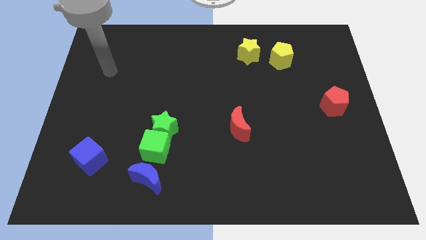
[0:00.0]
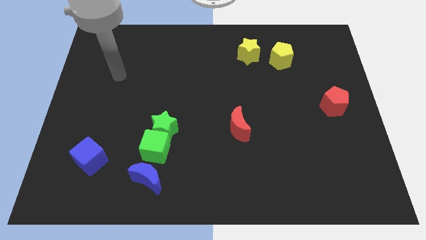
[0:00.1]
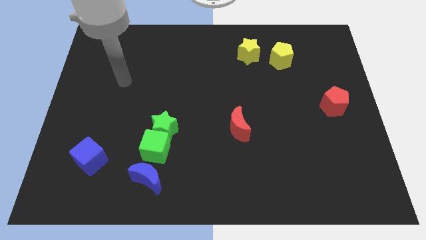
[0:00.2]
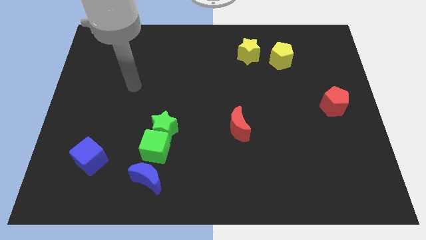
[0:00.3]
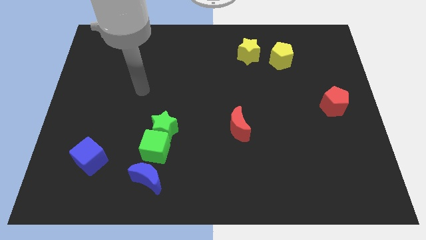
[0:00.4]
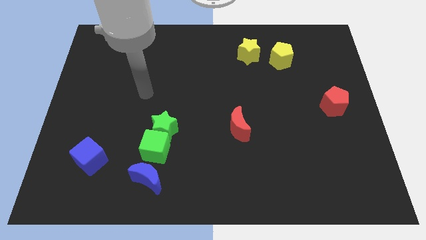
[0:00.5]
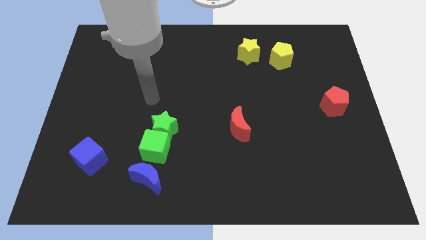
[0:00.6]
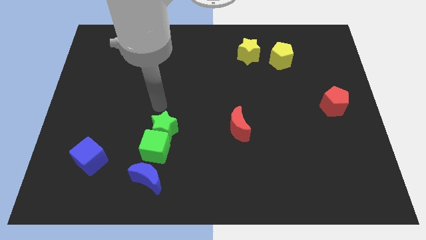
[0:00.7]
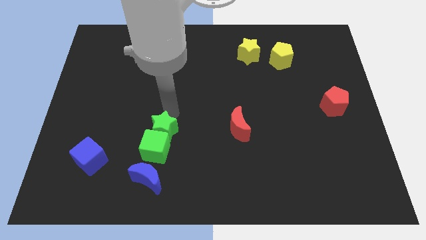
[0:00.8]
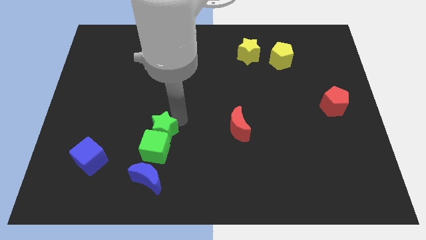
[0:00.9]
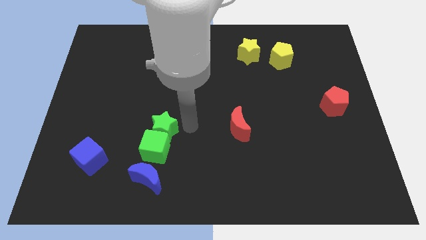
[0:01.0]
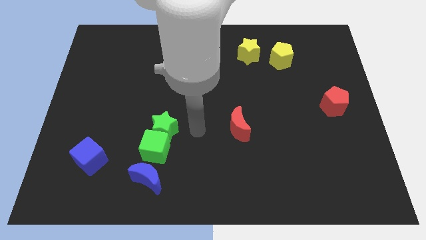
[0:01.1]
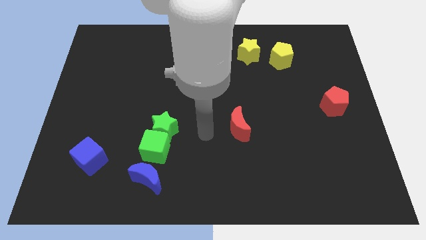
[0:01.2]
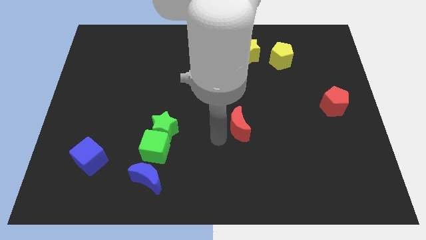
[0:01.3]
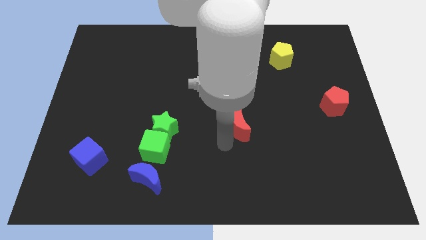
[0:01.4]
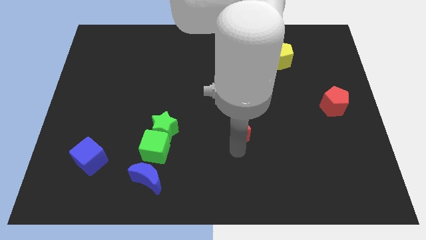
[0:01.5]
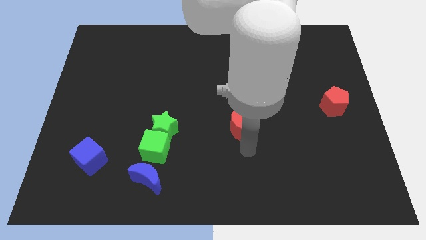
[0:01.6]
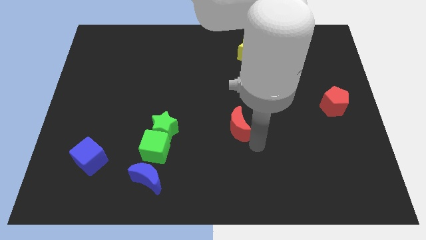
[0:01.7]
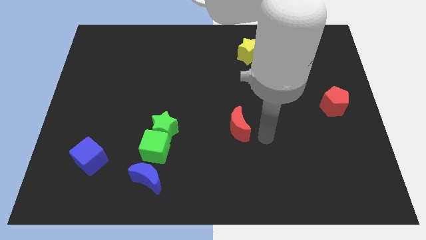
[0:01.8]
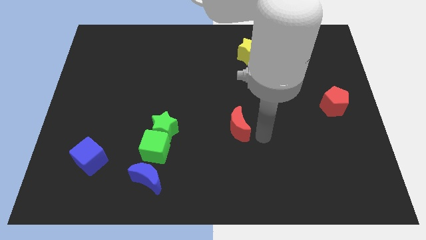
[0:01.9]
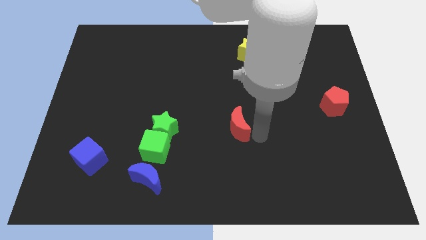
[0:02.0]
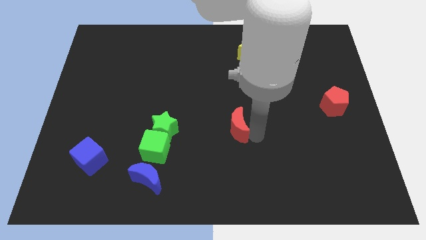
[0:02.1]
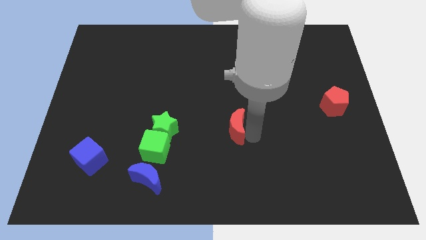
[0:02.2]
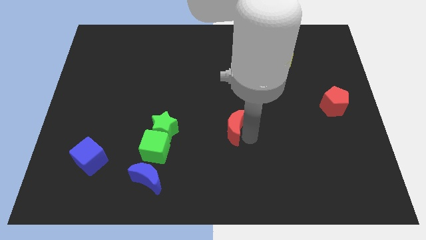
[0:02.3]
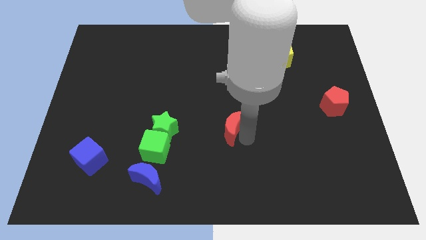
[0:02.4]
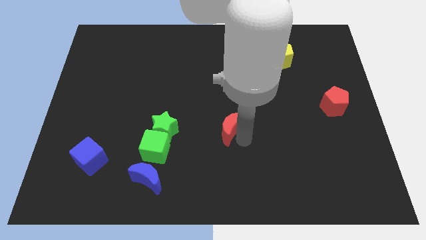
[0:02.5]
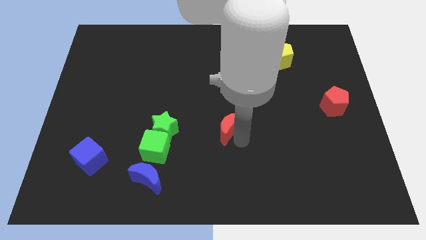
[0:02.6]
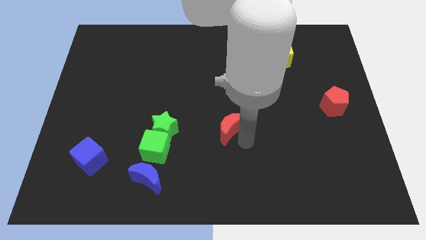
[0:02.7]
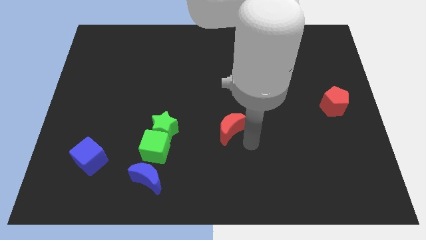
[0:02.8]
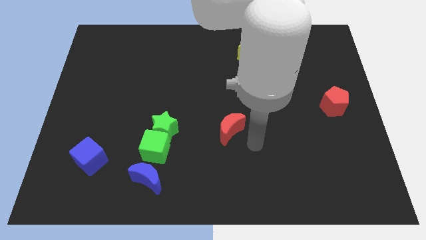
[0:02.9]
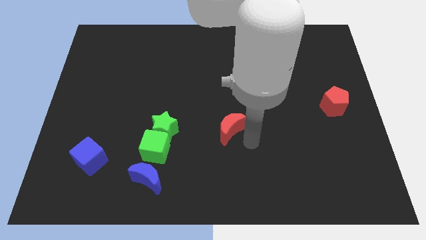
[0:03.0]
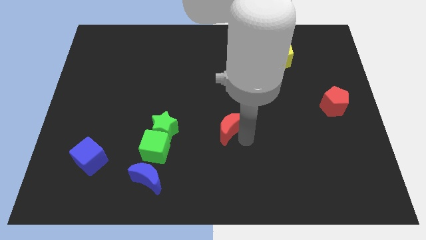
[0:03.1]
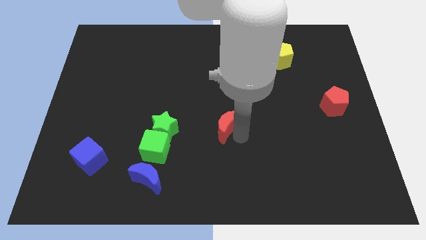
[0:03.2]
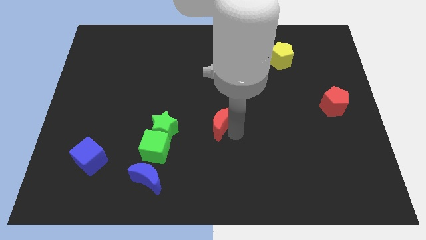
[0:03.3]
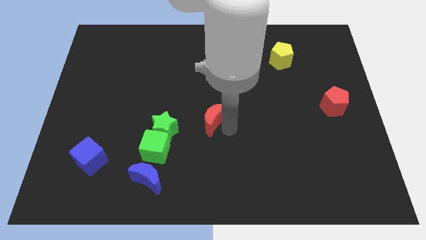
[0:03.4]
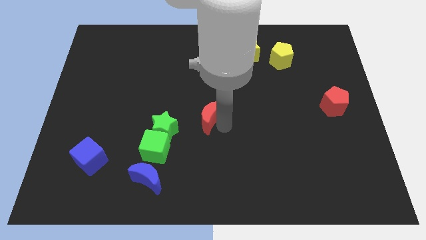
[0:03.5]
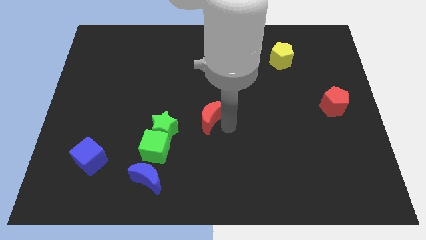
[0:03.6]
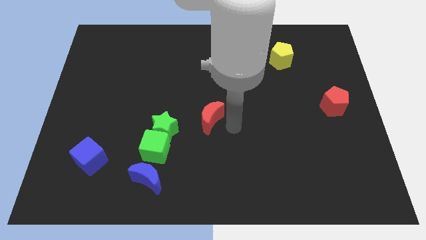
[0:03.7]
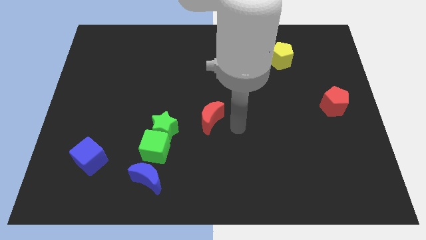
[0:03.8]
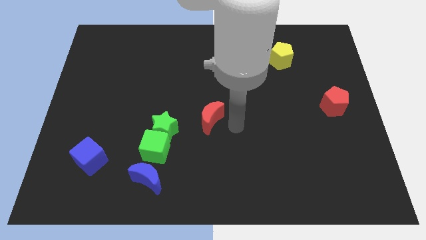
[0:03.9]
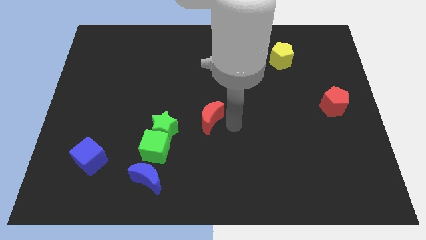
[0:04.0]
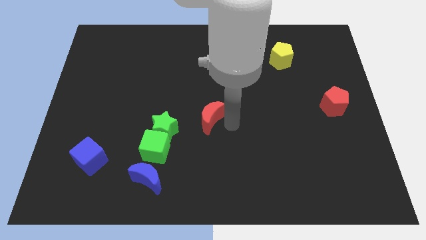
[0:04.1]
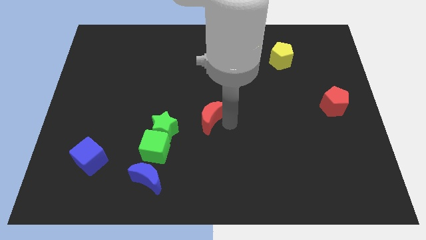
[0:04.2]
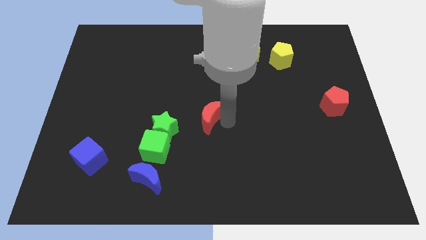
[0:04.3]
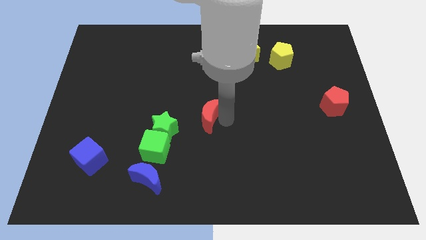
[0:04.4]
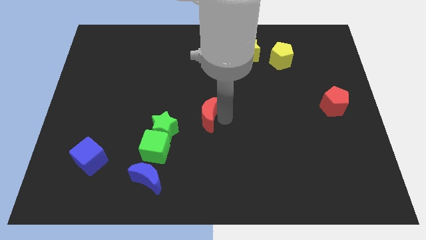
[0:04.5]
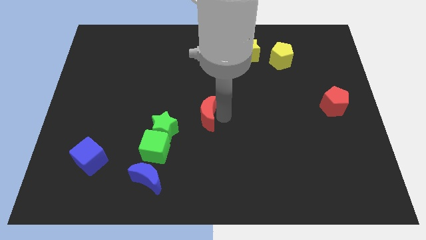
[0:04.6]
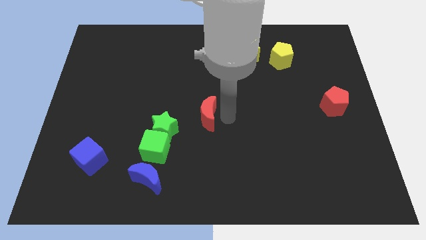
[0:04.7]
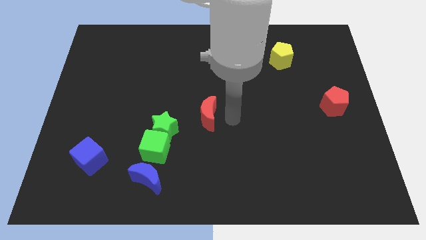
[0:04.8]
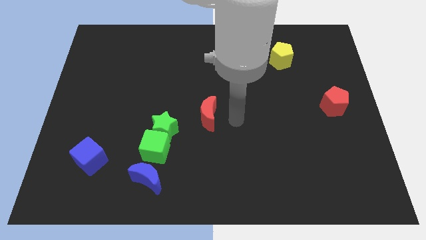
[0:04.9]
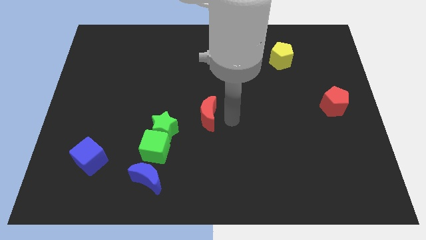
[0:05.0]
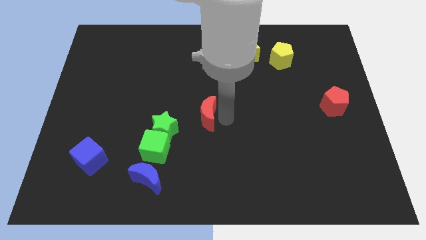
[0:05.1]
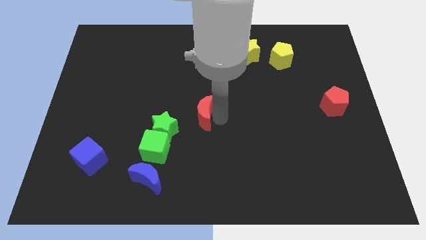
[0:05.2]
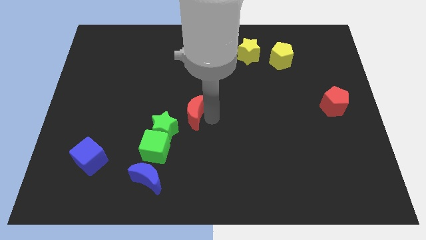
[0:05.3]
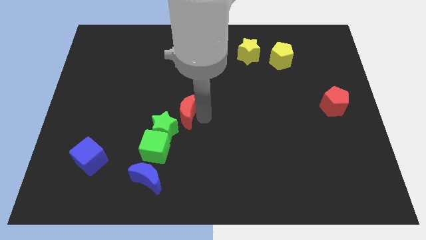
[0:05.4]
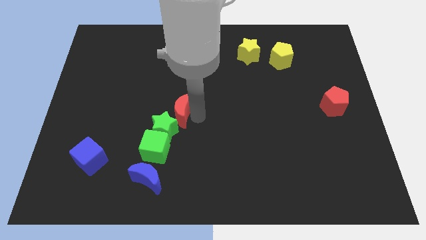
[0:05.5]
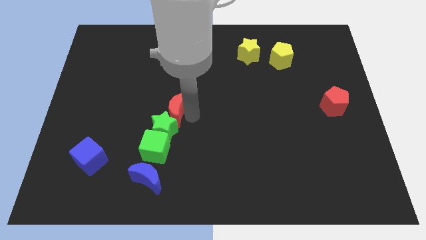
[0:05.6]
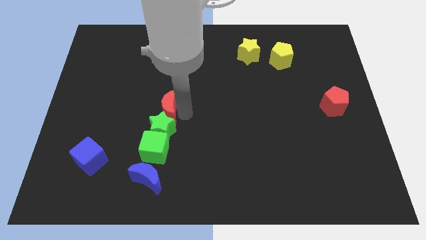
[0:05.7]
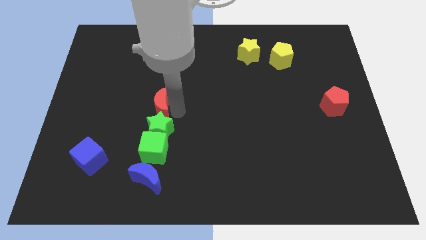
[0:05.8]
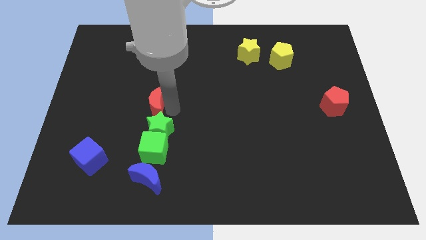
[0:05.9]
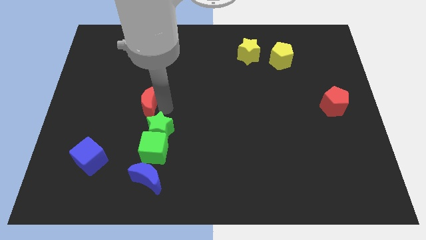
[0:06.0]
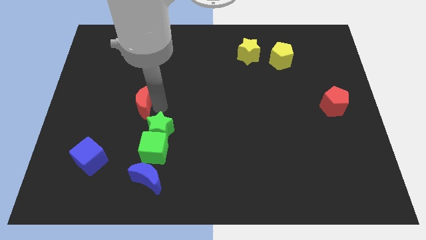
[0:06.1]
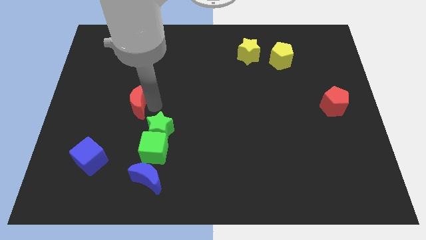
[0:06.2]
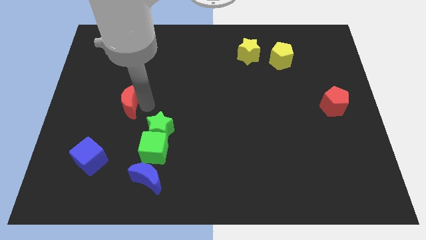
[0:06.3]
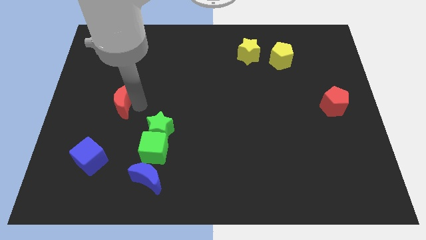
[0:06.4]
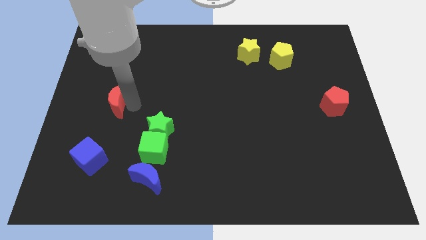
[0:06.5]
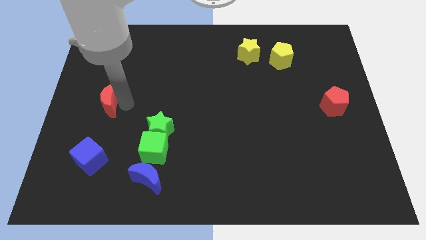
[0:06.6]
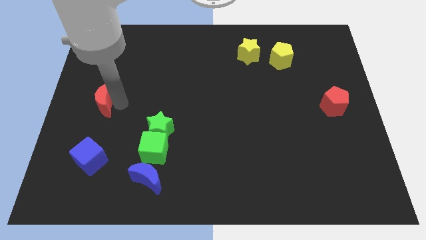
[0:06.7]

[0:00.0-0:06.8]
slide the red moon to the left side
